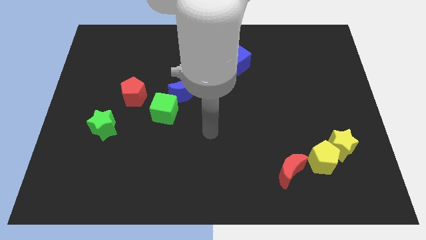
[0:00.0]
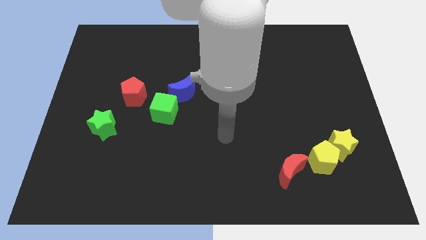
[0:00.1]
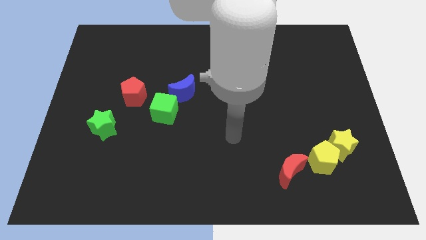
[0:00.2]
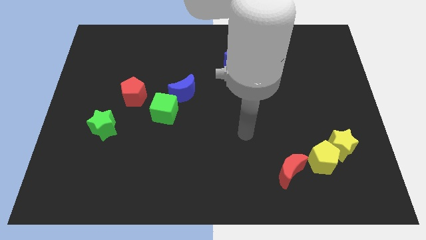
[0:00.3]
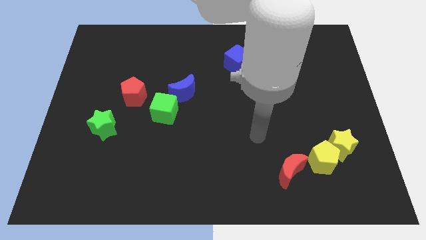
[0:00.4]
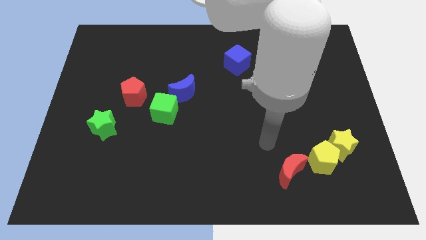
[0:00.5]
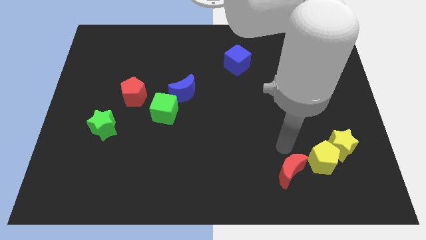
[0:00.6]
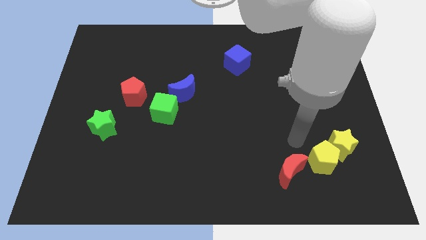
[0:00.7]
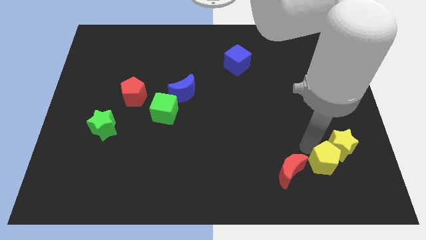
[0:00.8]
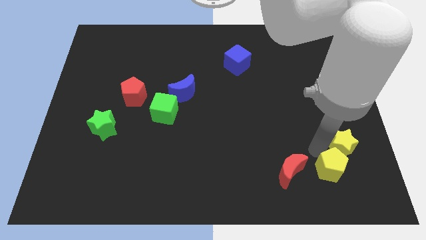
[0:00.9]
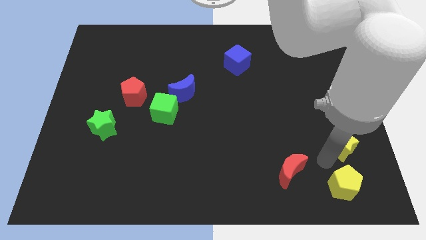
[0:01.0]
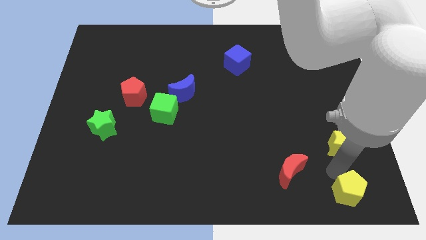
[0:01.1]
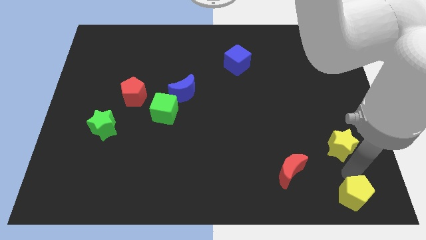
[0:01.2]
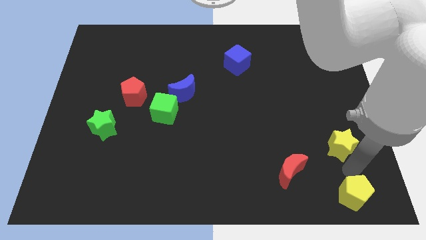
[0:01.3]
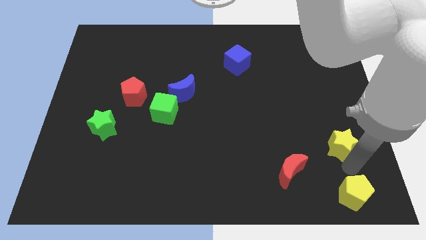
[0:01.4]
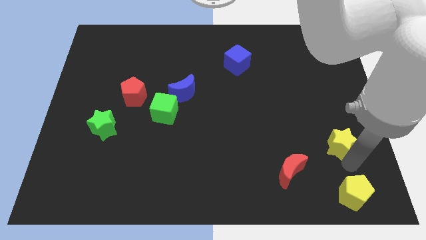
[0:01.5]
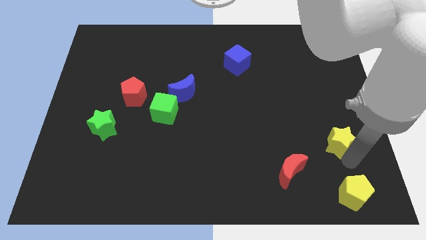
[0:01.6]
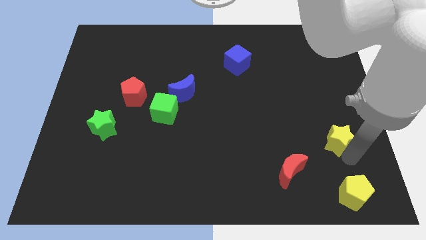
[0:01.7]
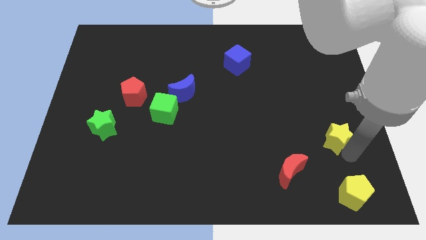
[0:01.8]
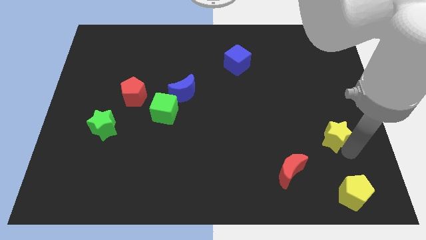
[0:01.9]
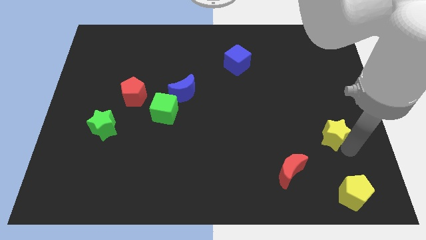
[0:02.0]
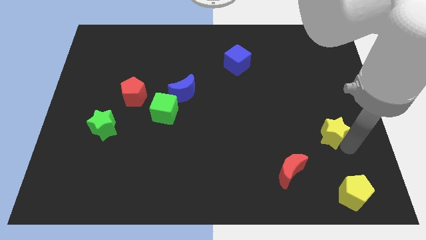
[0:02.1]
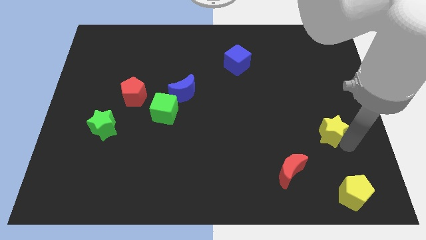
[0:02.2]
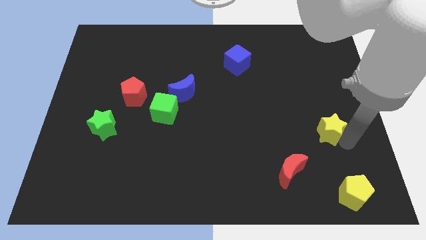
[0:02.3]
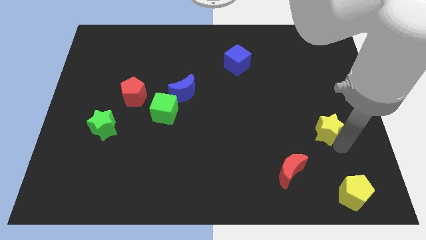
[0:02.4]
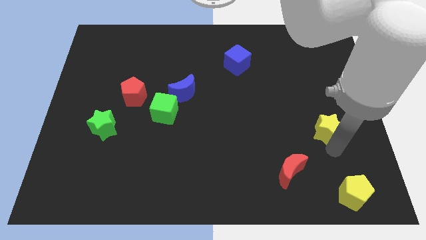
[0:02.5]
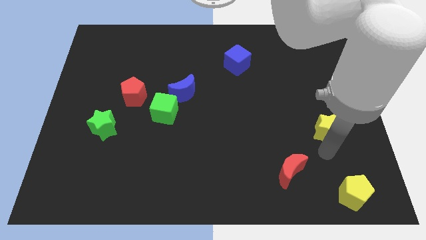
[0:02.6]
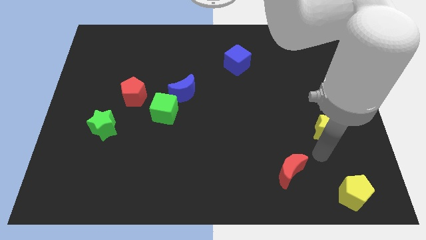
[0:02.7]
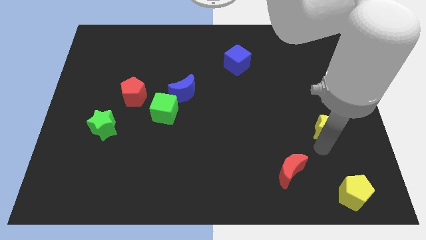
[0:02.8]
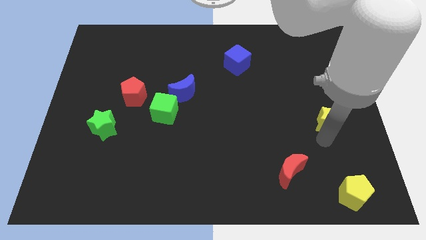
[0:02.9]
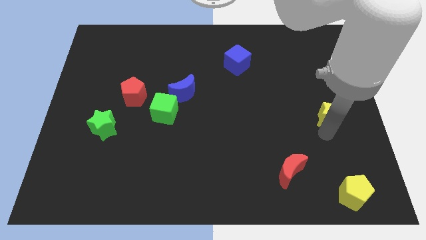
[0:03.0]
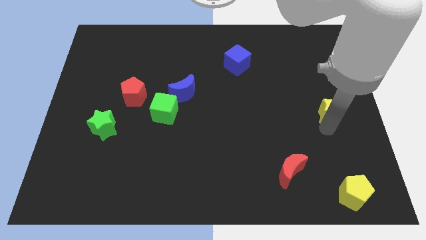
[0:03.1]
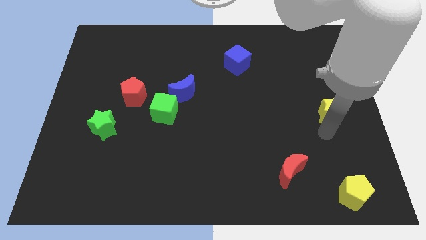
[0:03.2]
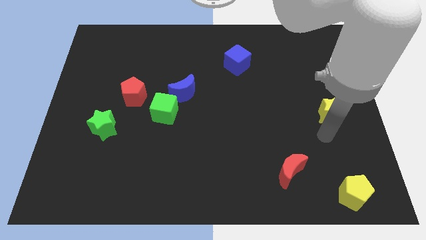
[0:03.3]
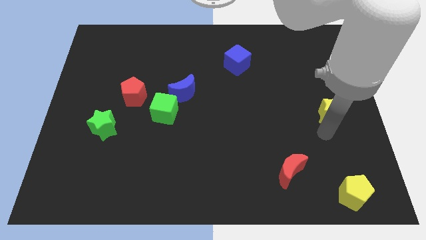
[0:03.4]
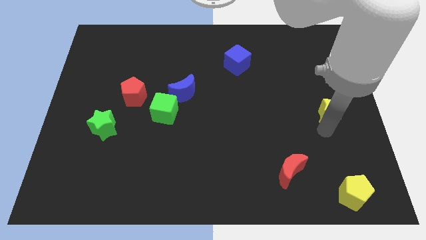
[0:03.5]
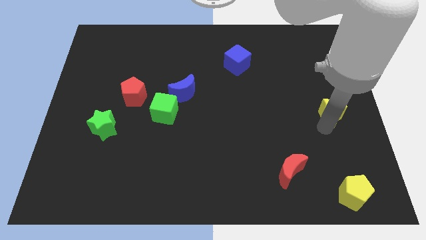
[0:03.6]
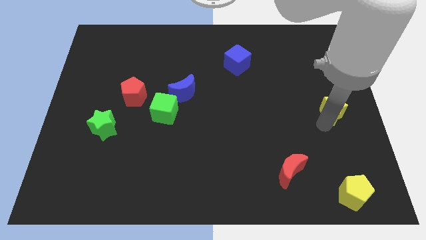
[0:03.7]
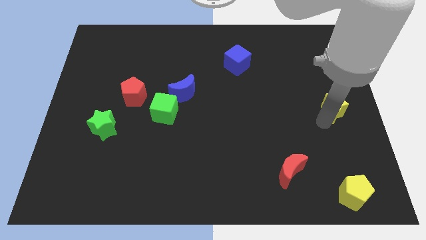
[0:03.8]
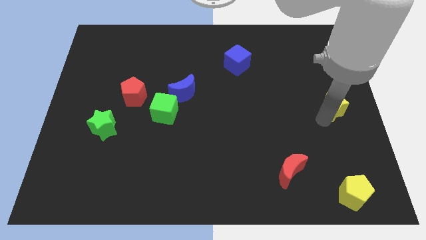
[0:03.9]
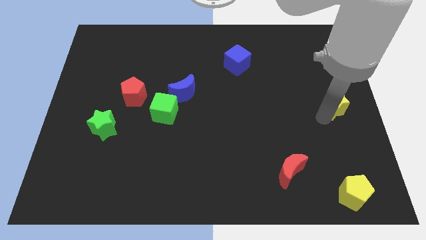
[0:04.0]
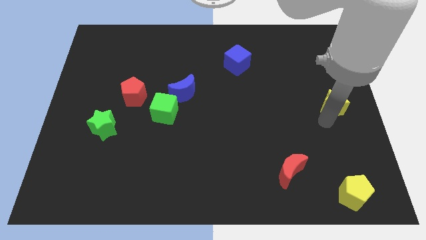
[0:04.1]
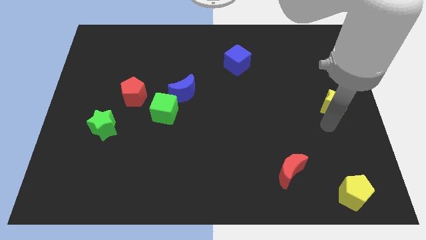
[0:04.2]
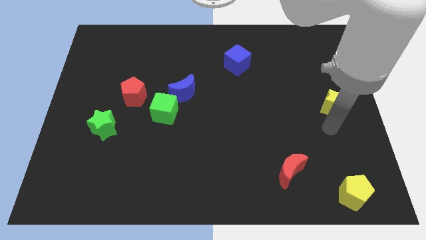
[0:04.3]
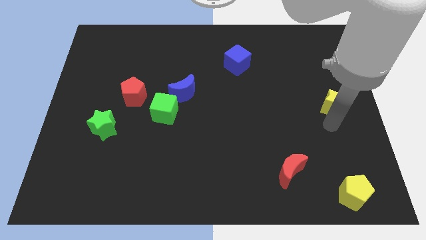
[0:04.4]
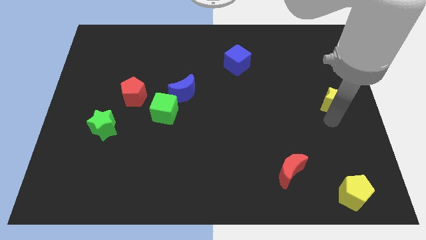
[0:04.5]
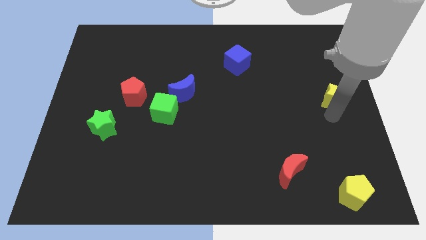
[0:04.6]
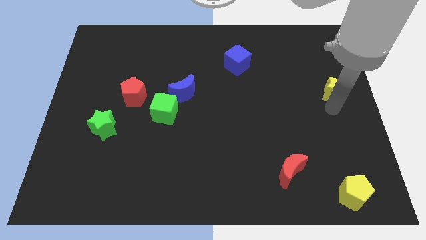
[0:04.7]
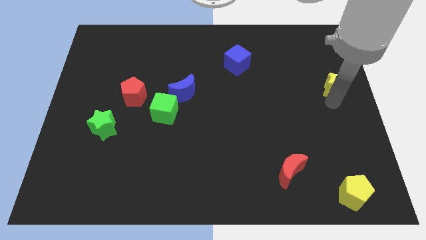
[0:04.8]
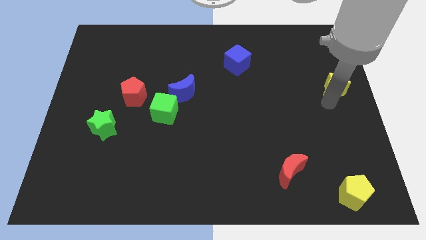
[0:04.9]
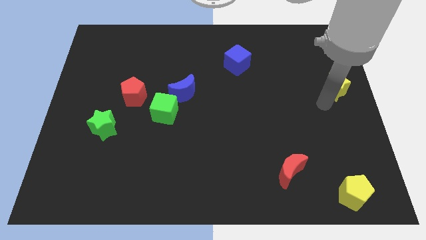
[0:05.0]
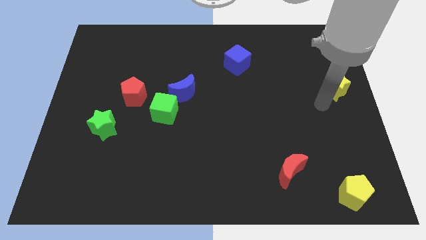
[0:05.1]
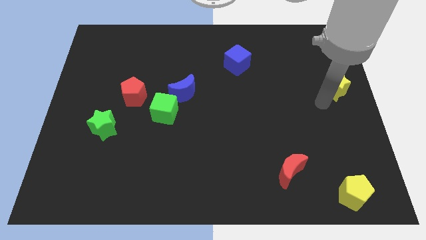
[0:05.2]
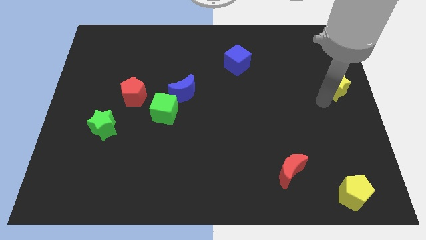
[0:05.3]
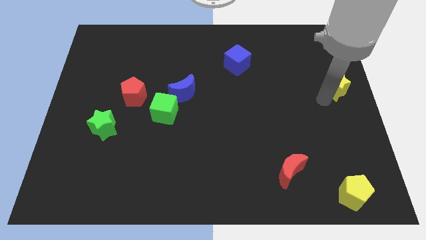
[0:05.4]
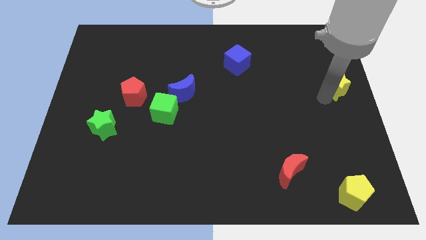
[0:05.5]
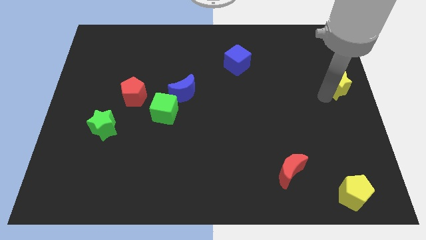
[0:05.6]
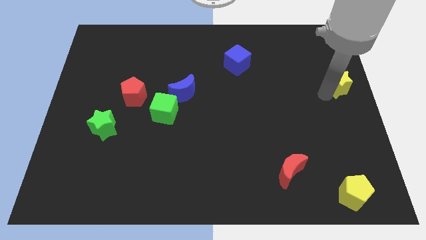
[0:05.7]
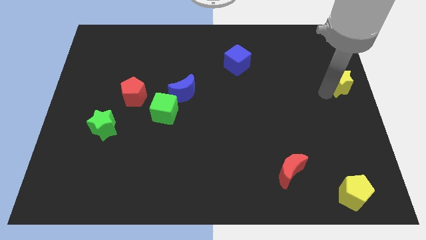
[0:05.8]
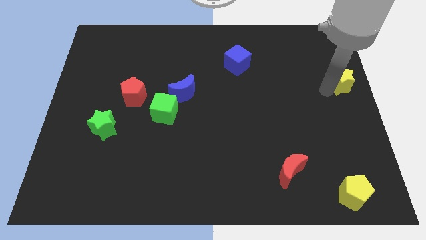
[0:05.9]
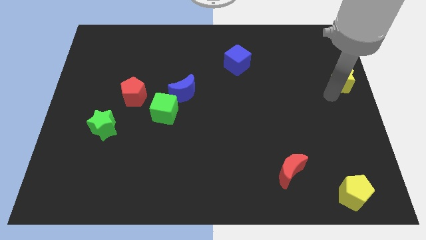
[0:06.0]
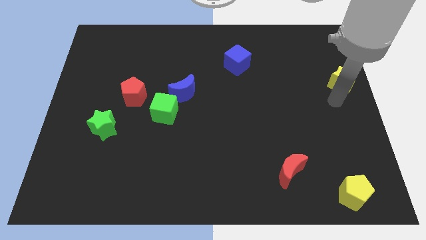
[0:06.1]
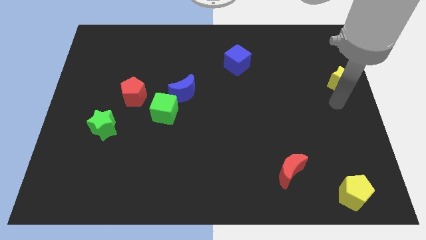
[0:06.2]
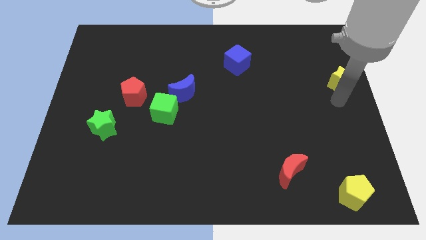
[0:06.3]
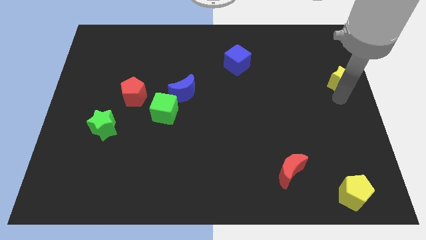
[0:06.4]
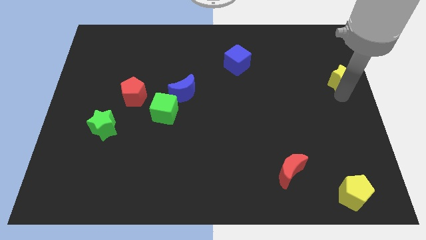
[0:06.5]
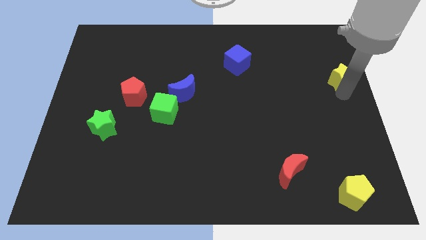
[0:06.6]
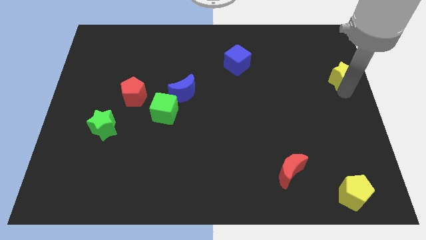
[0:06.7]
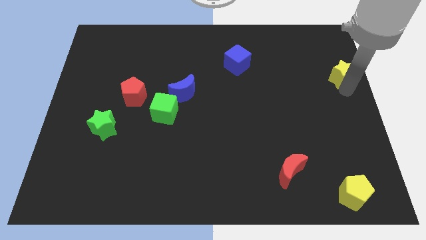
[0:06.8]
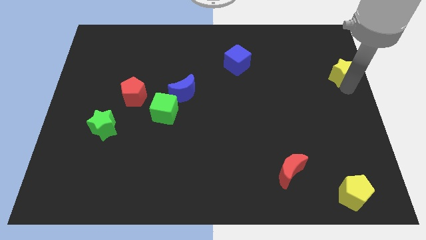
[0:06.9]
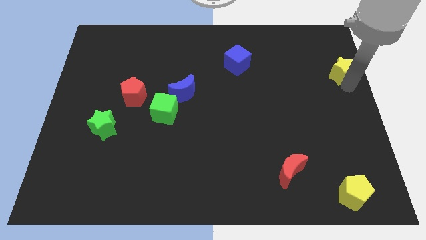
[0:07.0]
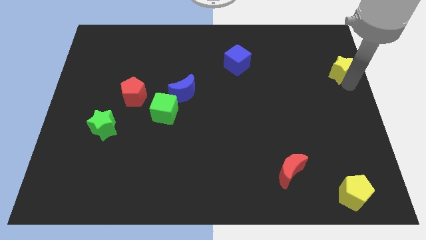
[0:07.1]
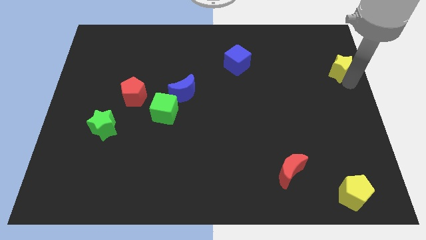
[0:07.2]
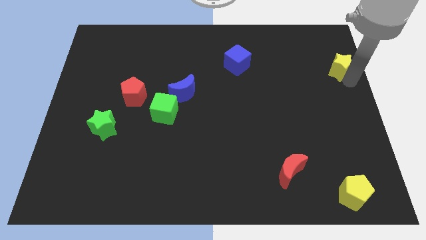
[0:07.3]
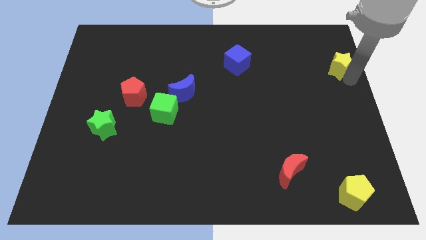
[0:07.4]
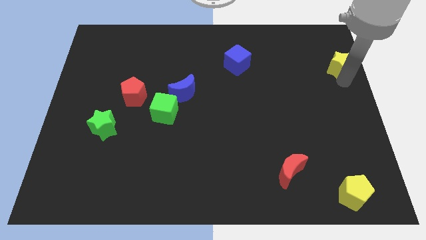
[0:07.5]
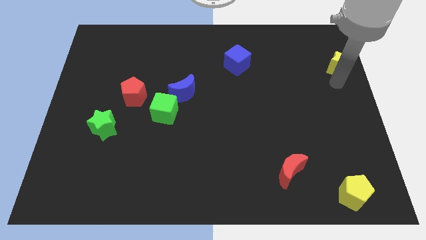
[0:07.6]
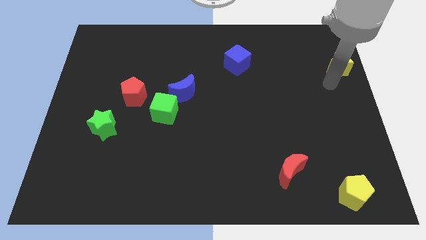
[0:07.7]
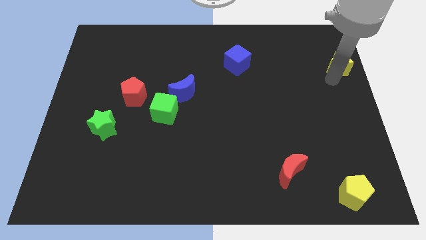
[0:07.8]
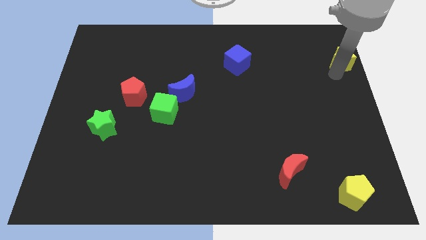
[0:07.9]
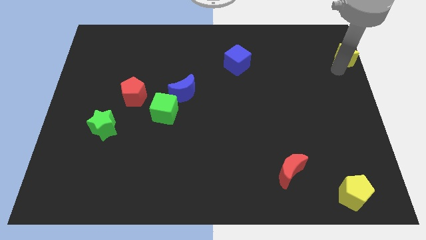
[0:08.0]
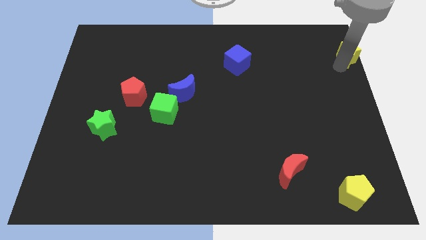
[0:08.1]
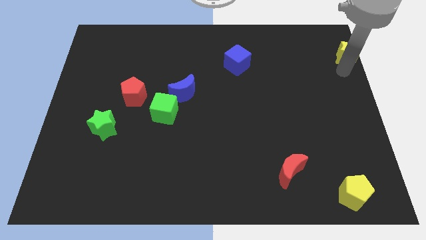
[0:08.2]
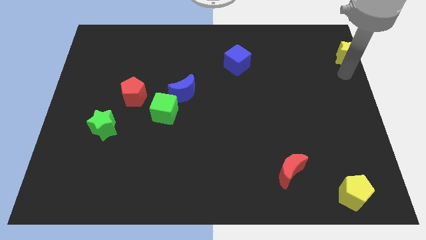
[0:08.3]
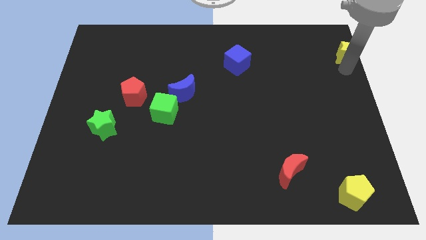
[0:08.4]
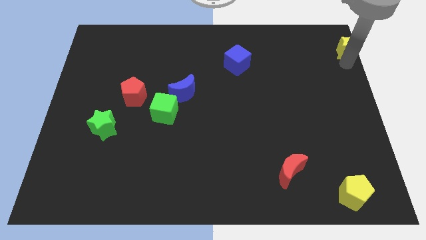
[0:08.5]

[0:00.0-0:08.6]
push the yellow star to the top right
